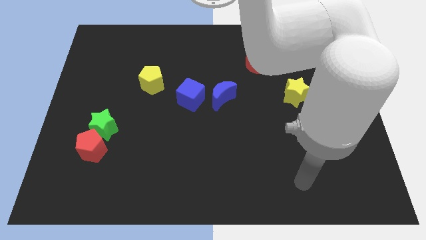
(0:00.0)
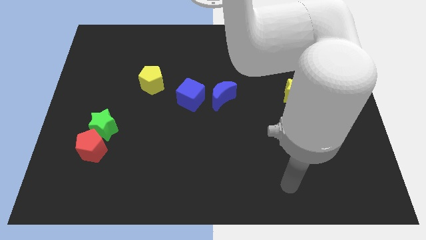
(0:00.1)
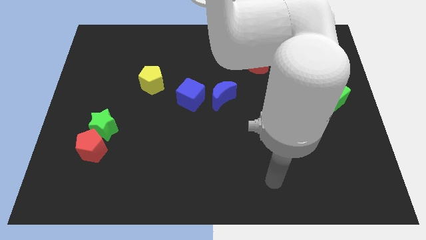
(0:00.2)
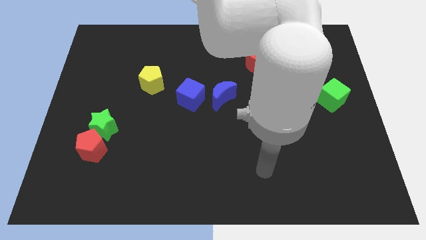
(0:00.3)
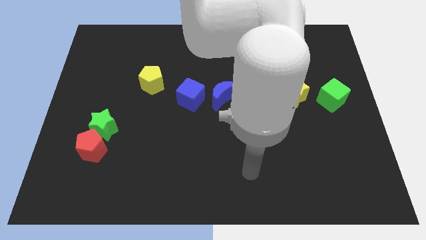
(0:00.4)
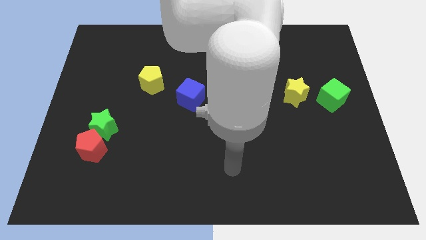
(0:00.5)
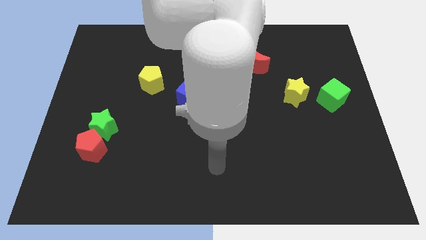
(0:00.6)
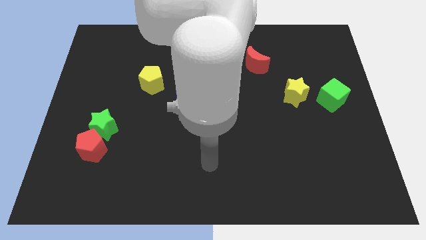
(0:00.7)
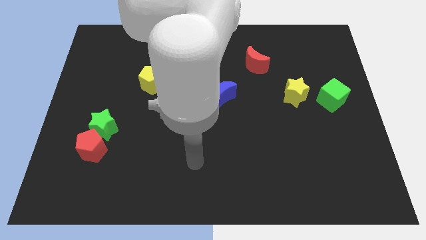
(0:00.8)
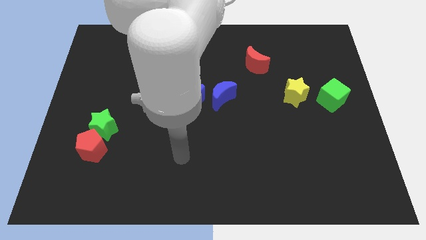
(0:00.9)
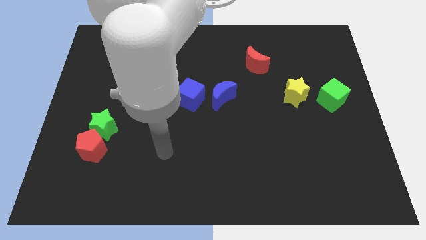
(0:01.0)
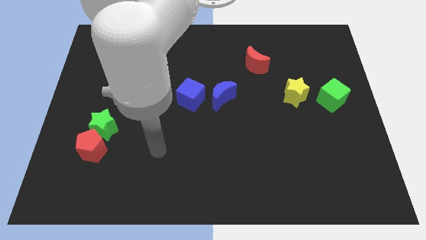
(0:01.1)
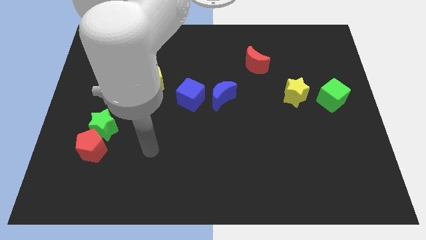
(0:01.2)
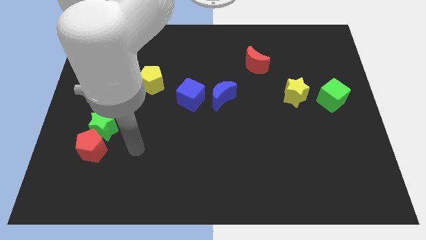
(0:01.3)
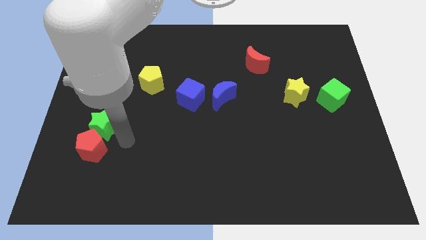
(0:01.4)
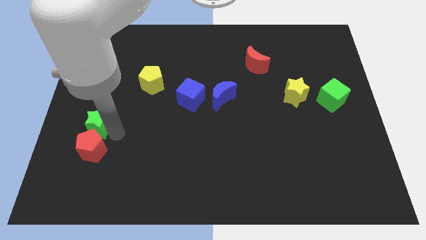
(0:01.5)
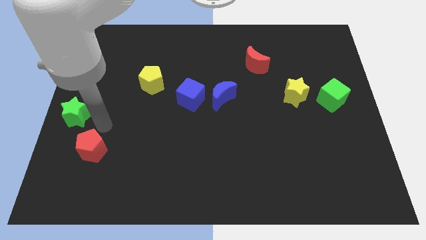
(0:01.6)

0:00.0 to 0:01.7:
separate the red pentagon from the green star

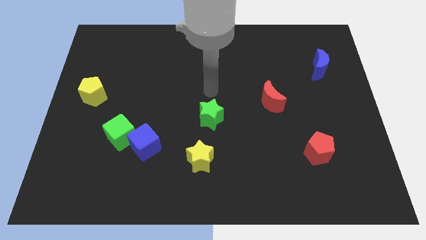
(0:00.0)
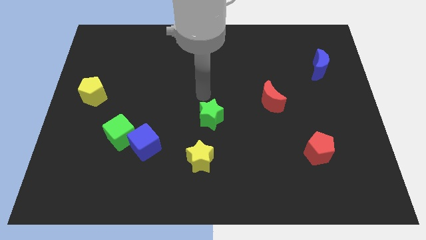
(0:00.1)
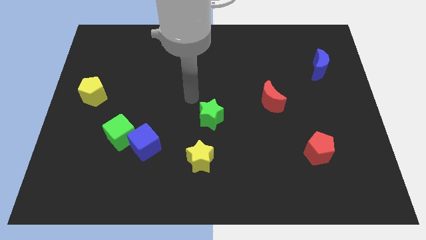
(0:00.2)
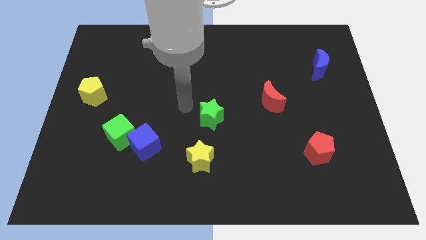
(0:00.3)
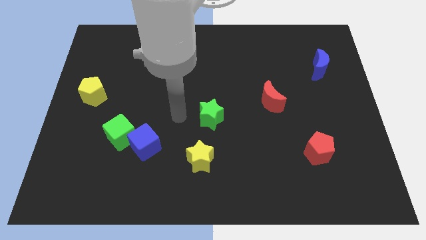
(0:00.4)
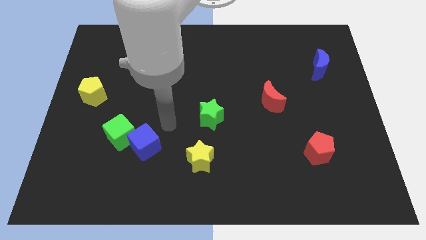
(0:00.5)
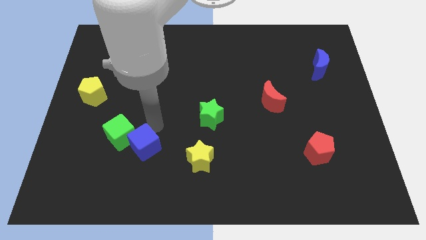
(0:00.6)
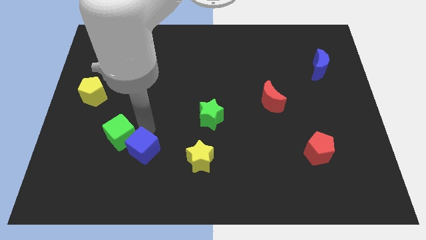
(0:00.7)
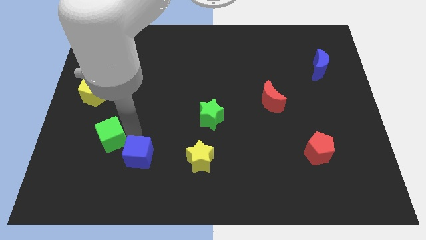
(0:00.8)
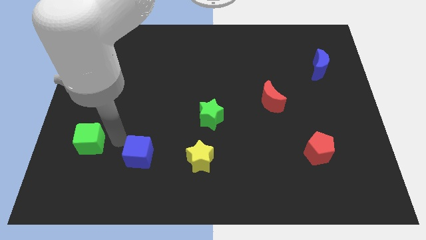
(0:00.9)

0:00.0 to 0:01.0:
separate the blue cube from the green cube

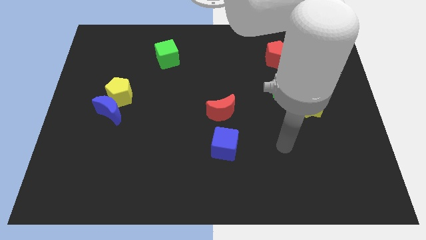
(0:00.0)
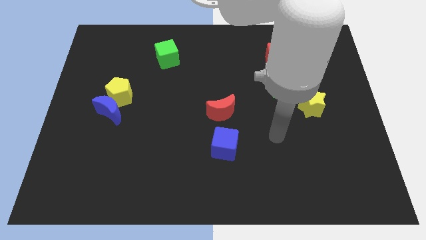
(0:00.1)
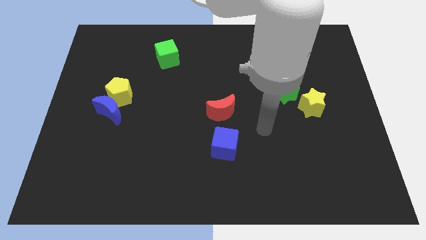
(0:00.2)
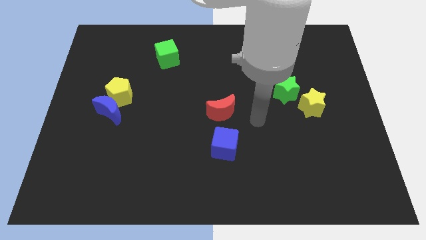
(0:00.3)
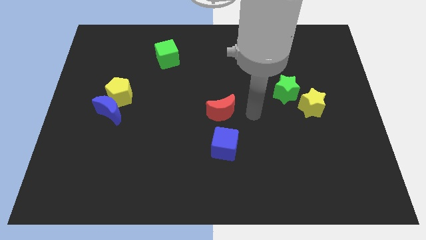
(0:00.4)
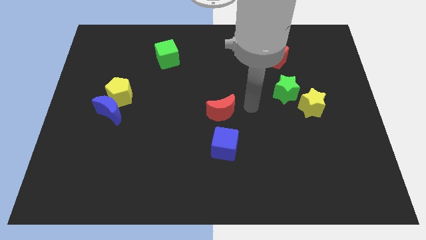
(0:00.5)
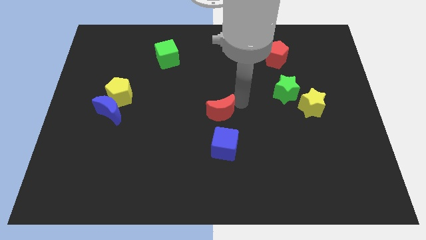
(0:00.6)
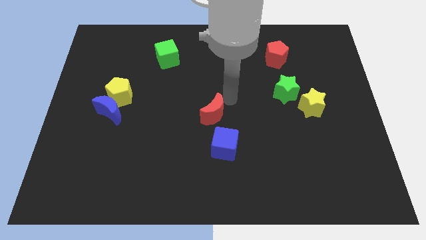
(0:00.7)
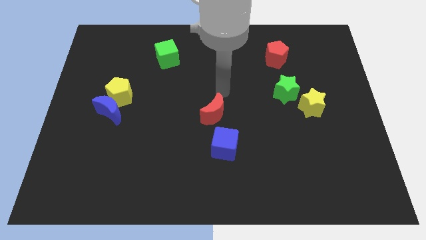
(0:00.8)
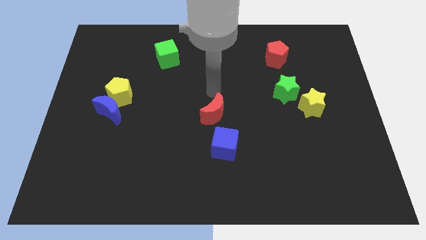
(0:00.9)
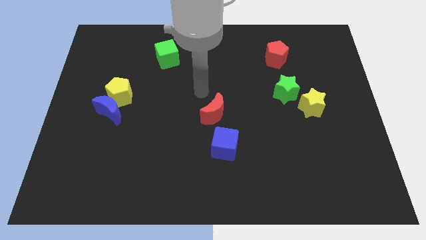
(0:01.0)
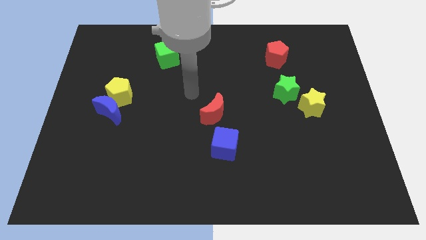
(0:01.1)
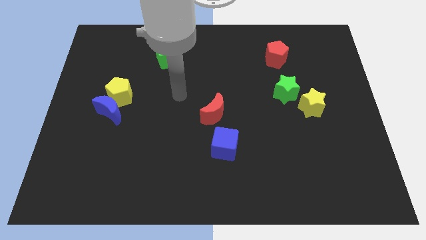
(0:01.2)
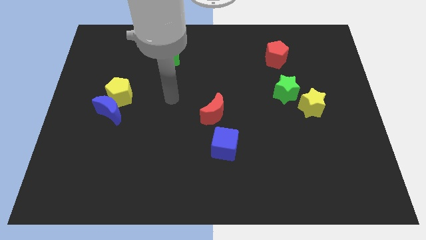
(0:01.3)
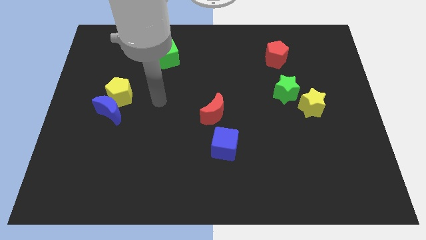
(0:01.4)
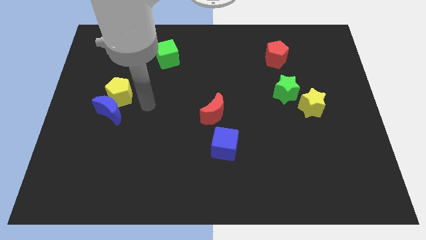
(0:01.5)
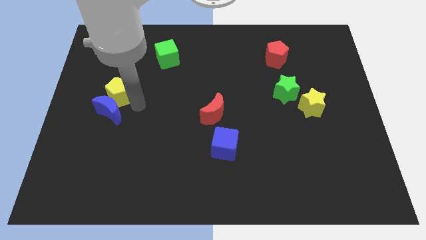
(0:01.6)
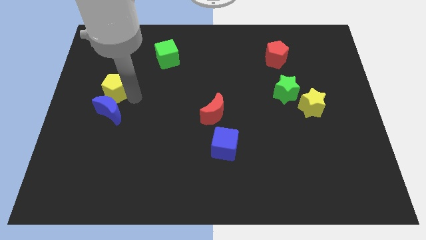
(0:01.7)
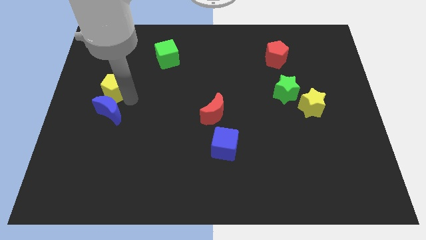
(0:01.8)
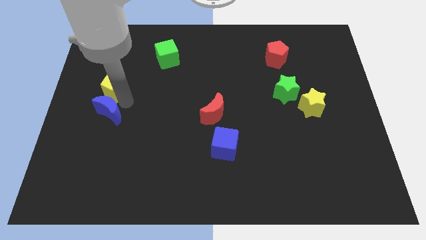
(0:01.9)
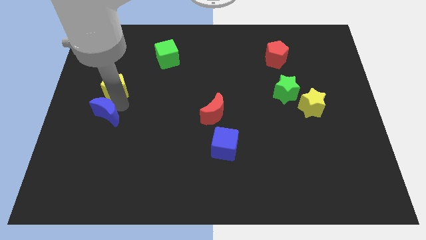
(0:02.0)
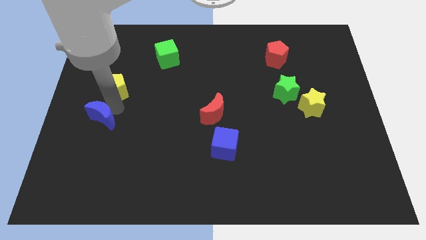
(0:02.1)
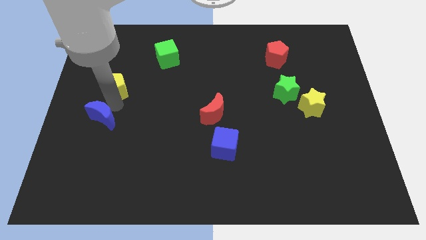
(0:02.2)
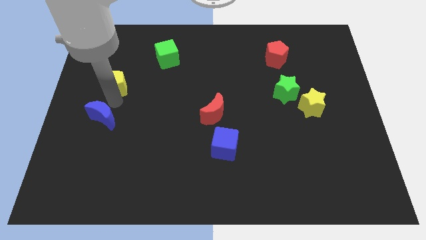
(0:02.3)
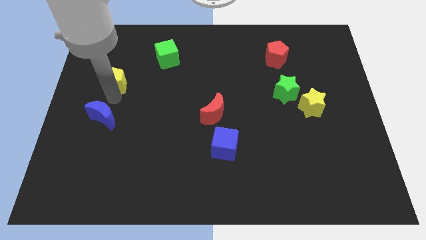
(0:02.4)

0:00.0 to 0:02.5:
separate the blue moon from the yellow pentagon

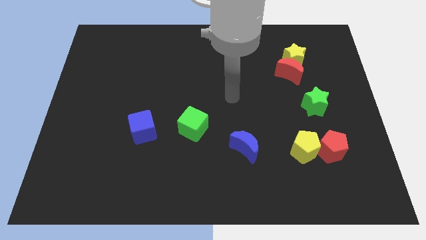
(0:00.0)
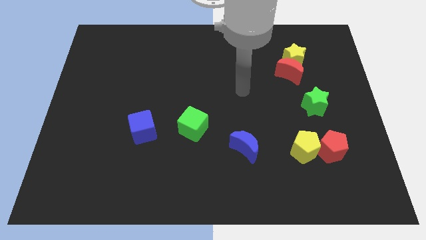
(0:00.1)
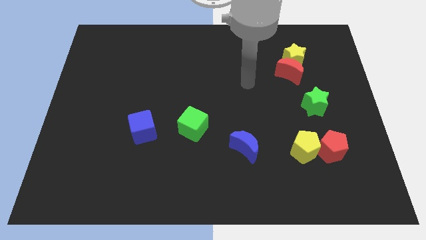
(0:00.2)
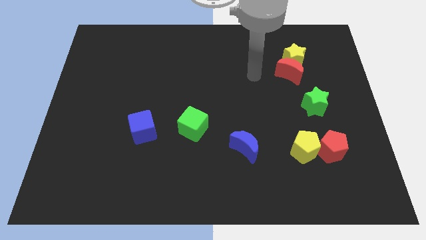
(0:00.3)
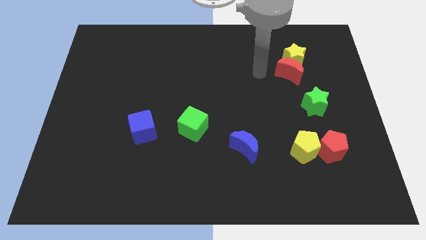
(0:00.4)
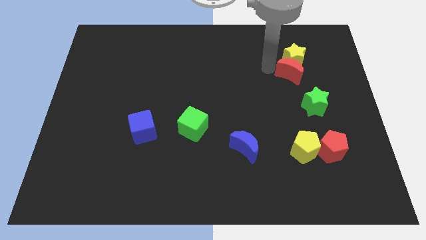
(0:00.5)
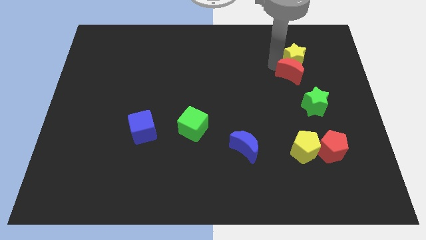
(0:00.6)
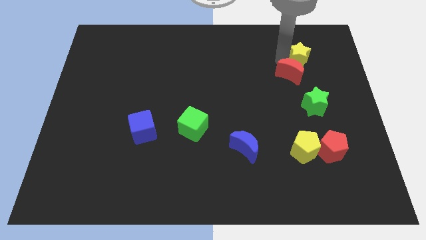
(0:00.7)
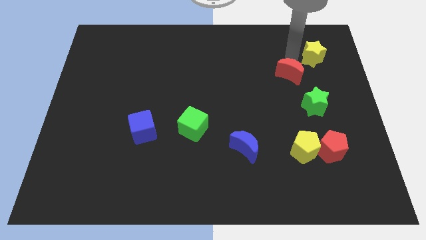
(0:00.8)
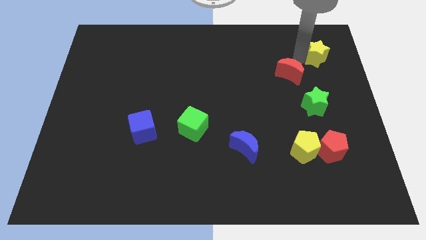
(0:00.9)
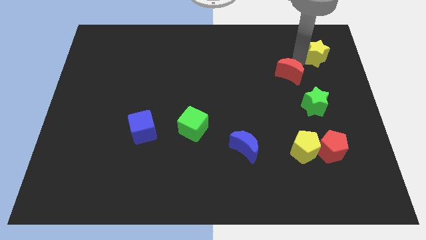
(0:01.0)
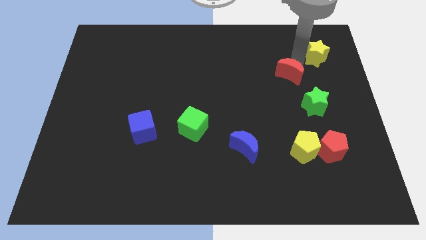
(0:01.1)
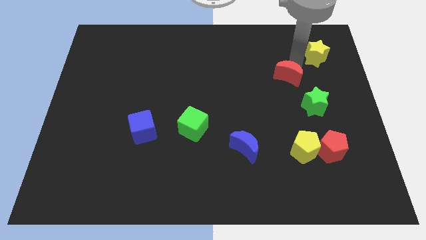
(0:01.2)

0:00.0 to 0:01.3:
move the red moon away from the yellow star

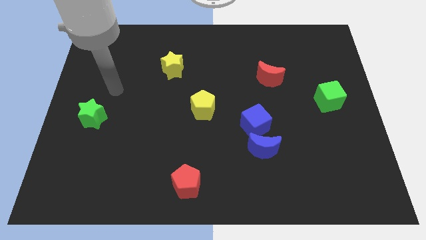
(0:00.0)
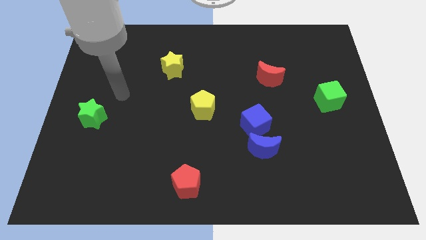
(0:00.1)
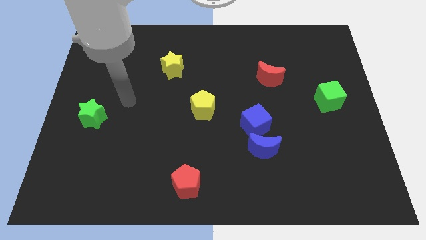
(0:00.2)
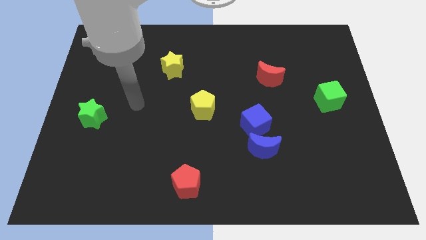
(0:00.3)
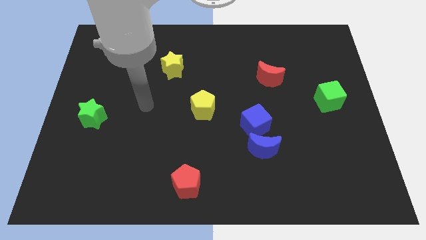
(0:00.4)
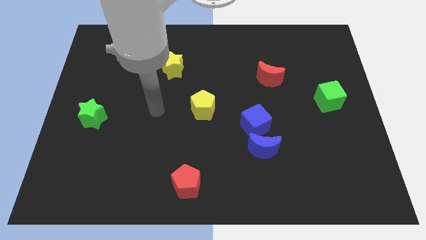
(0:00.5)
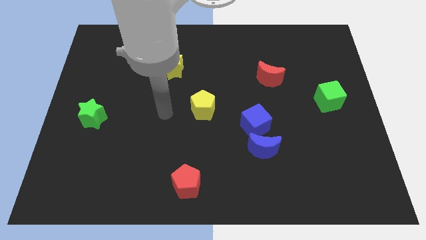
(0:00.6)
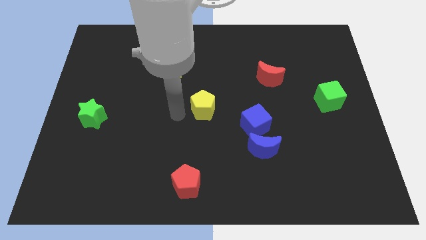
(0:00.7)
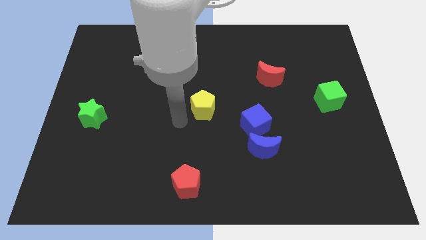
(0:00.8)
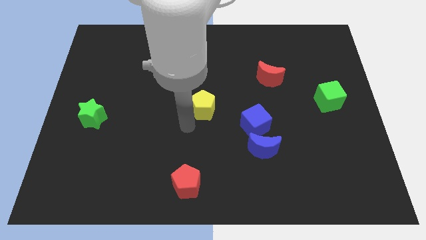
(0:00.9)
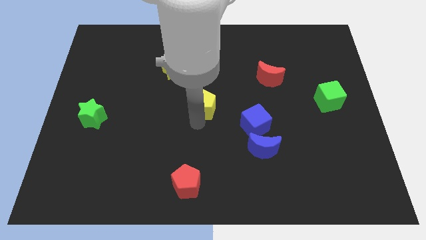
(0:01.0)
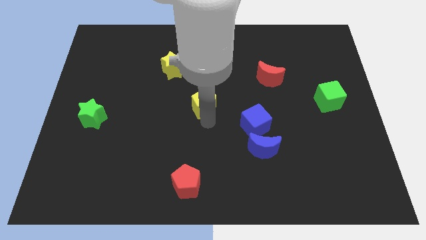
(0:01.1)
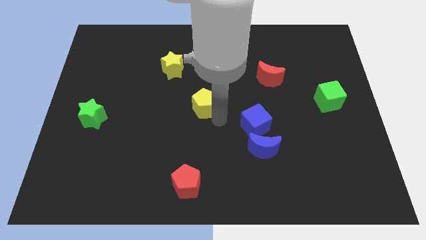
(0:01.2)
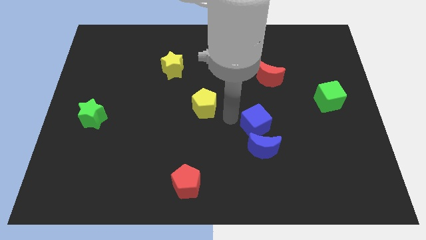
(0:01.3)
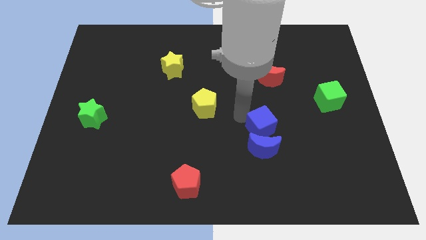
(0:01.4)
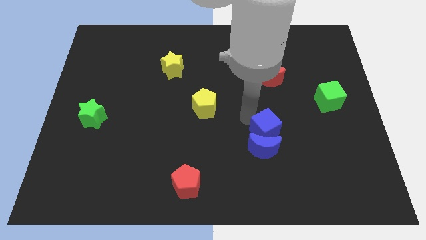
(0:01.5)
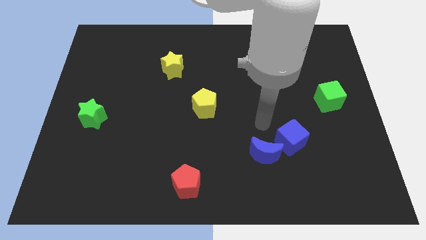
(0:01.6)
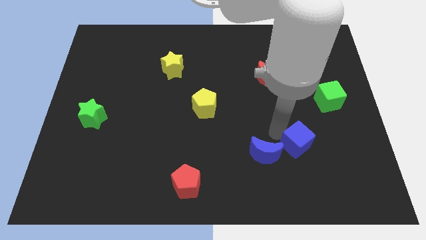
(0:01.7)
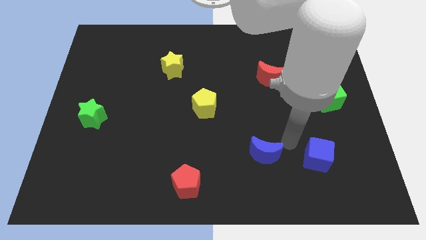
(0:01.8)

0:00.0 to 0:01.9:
move the blue moon away from the blue cube

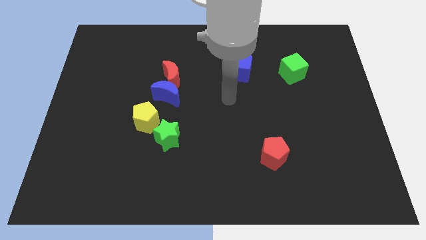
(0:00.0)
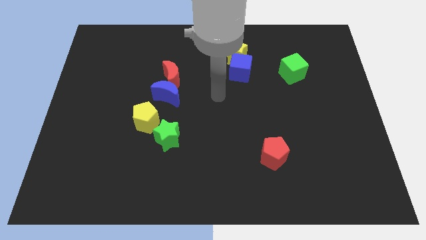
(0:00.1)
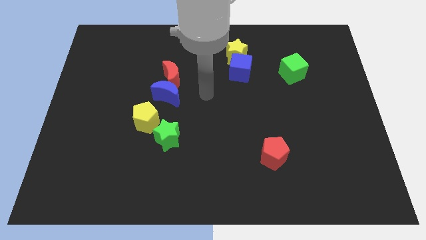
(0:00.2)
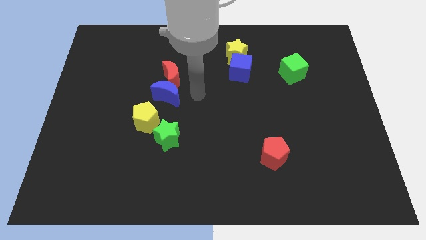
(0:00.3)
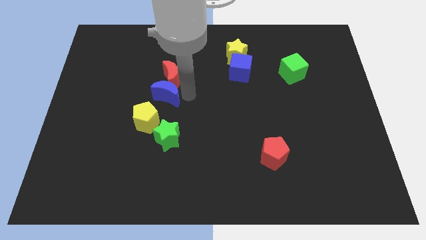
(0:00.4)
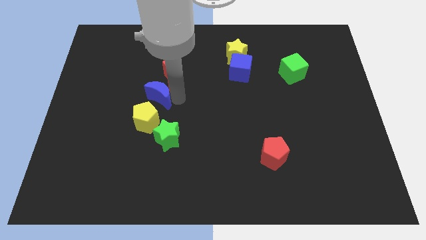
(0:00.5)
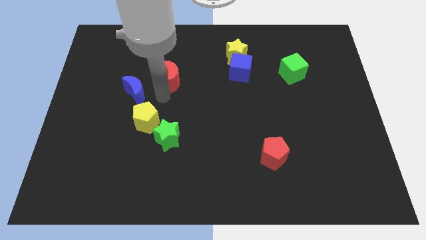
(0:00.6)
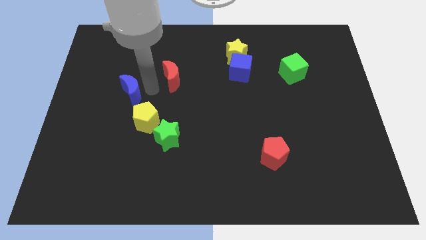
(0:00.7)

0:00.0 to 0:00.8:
pull the red moon apart from the blue moon
